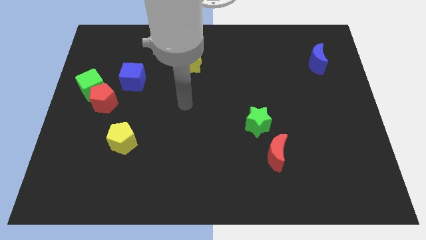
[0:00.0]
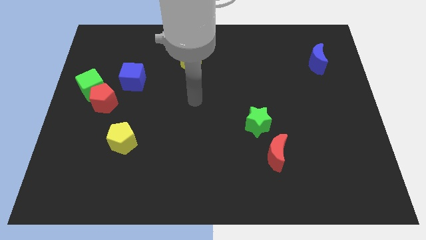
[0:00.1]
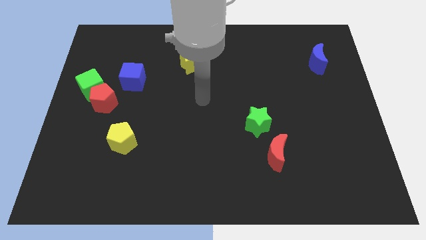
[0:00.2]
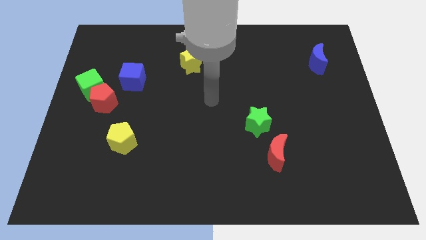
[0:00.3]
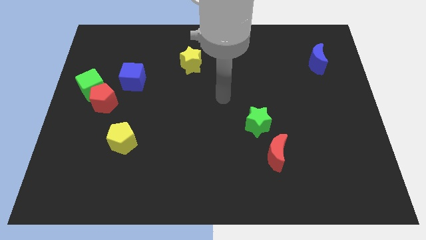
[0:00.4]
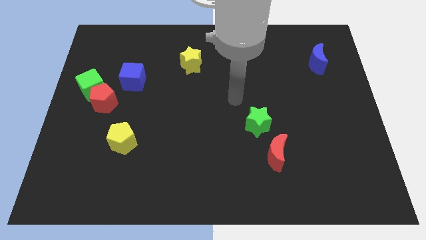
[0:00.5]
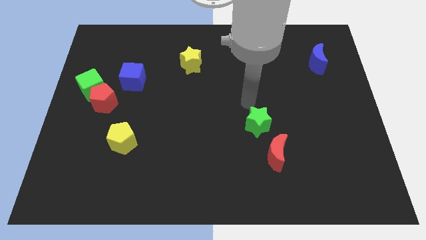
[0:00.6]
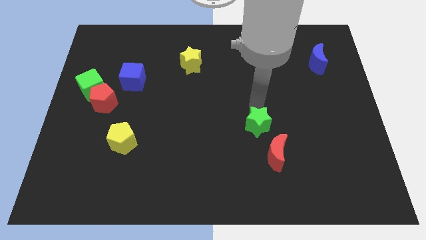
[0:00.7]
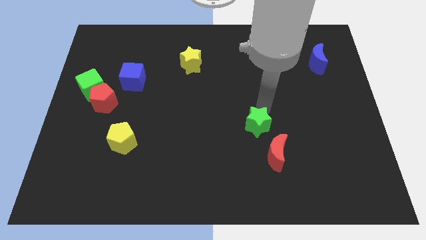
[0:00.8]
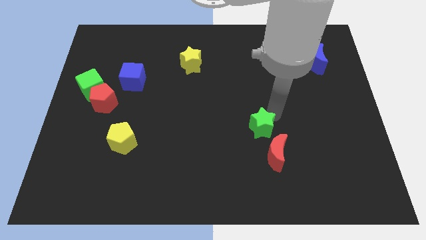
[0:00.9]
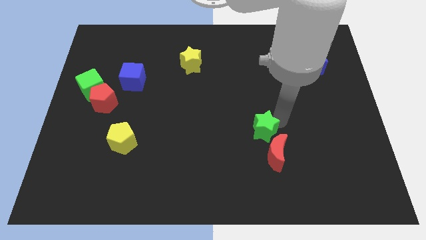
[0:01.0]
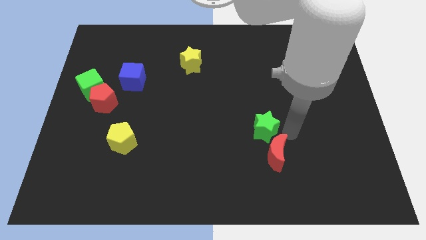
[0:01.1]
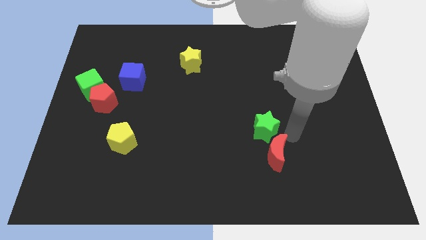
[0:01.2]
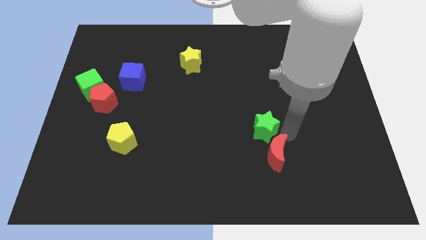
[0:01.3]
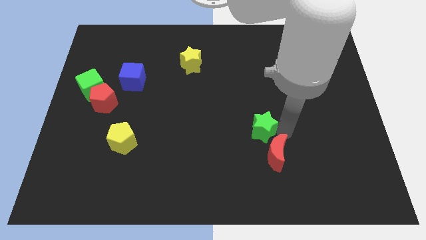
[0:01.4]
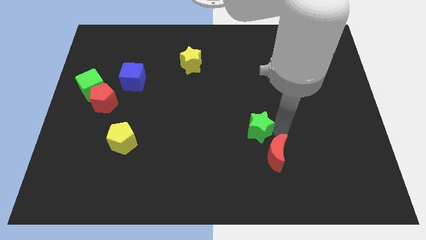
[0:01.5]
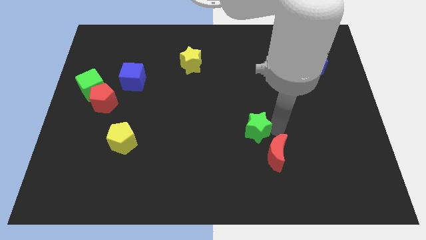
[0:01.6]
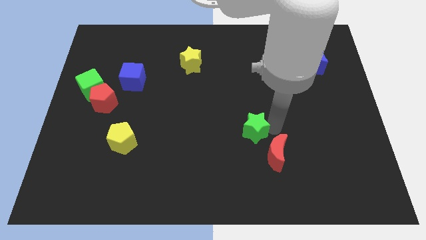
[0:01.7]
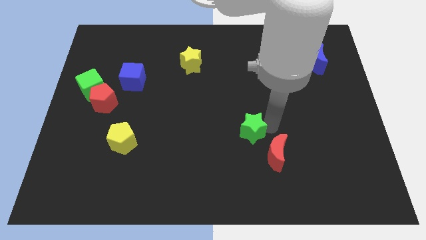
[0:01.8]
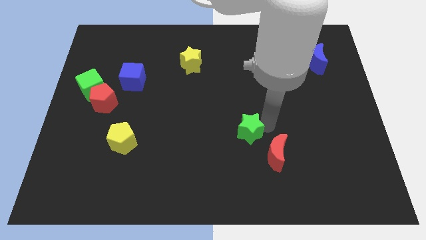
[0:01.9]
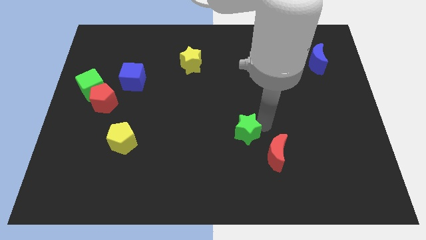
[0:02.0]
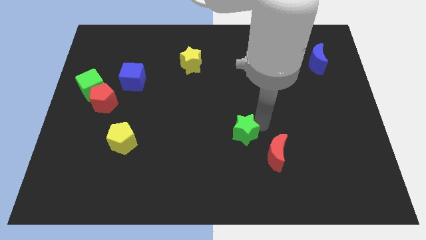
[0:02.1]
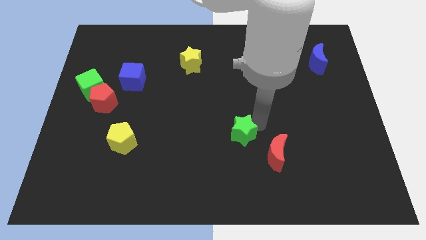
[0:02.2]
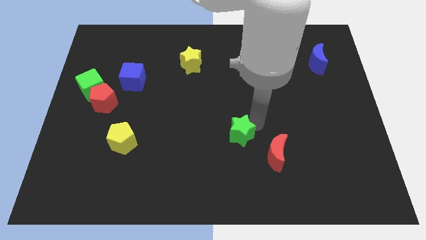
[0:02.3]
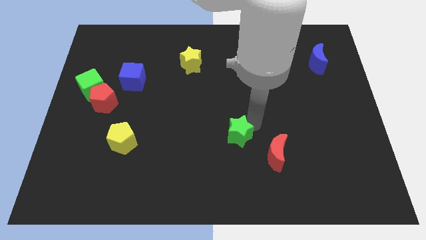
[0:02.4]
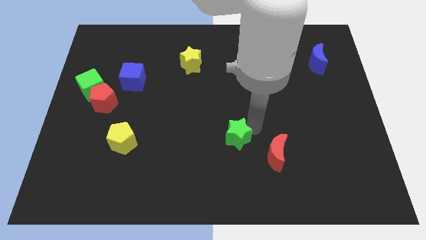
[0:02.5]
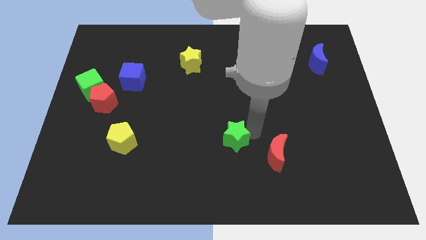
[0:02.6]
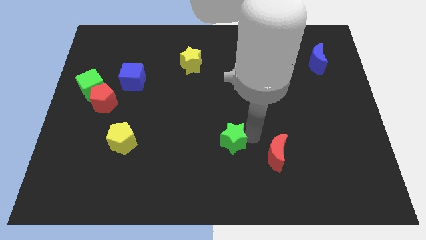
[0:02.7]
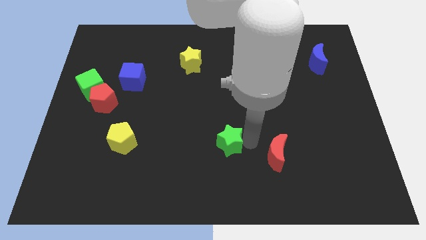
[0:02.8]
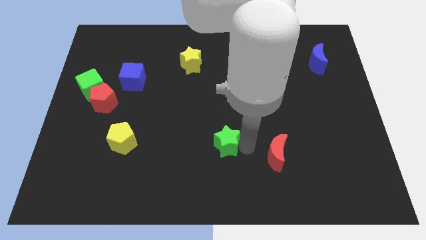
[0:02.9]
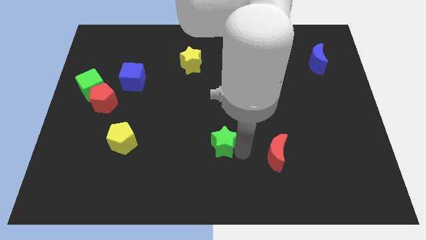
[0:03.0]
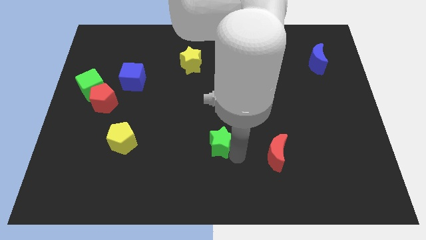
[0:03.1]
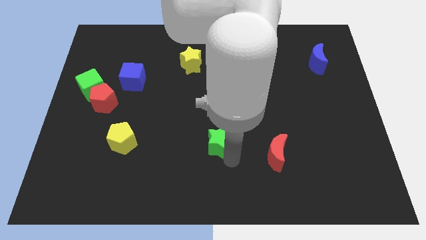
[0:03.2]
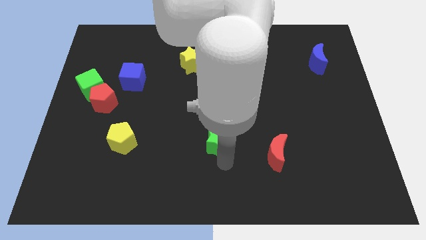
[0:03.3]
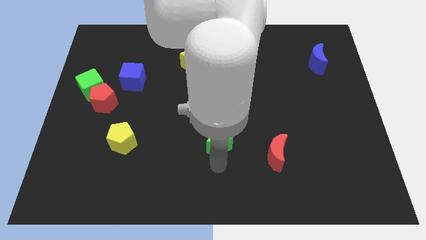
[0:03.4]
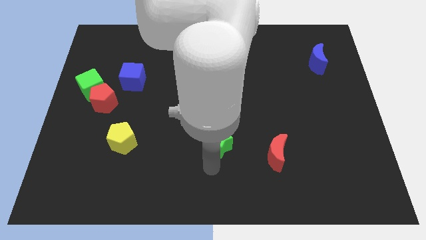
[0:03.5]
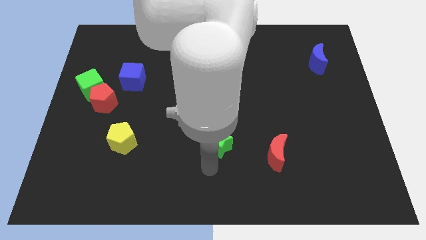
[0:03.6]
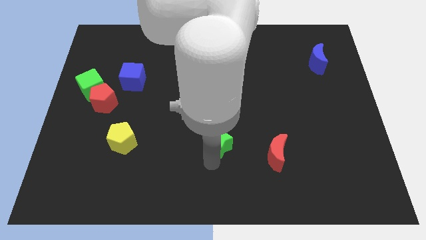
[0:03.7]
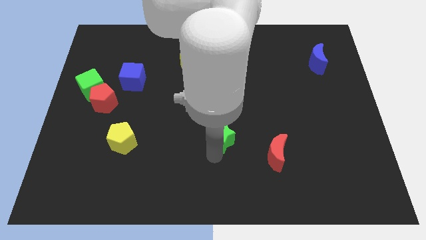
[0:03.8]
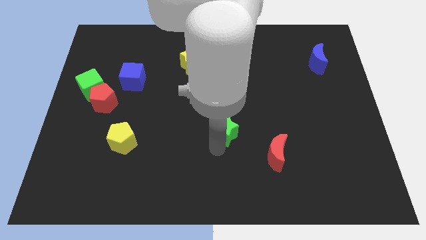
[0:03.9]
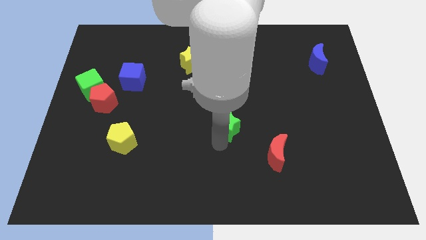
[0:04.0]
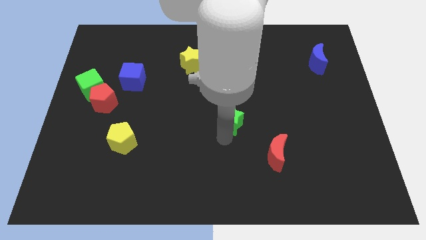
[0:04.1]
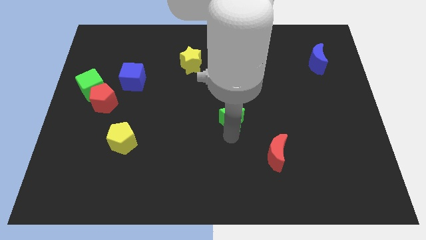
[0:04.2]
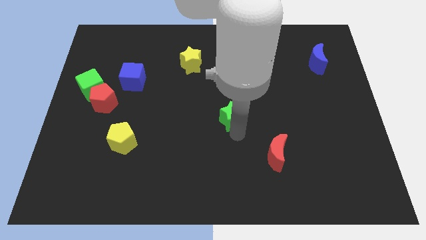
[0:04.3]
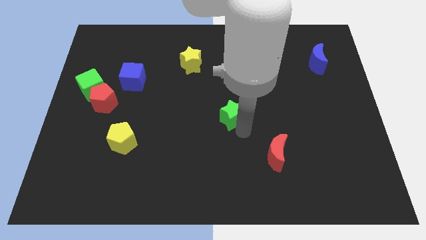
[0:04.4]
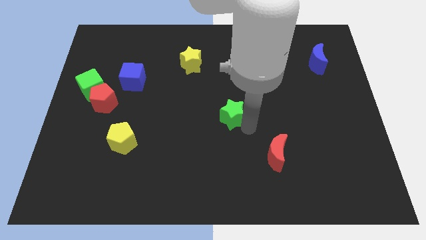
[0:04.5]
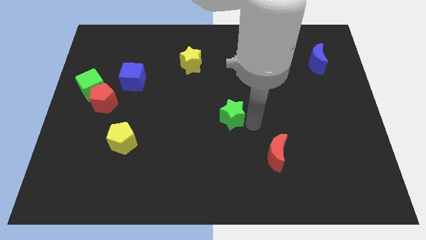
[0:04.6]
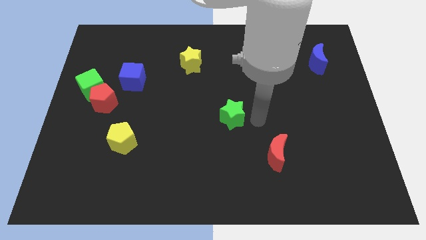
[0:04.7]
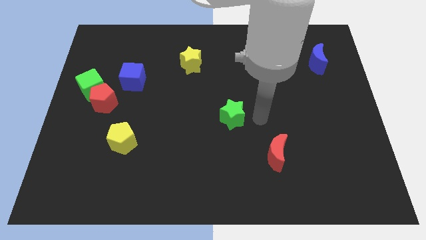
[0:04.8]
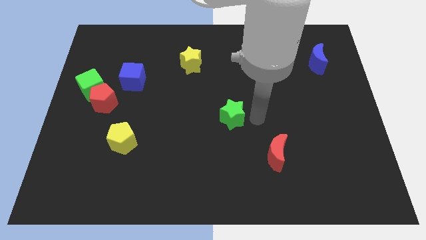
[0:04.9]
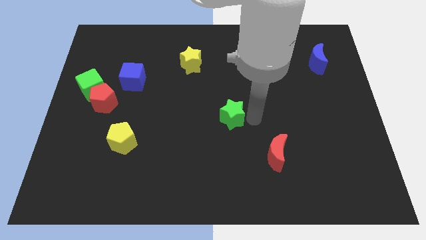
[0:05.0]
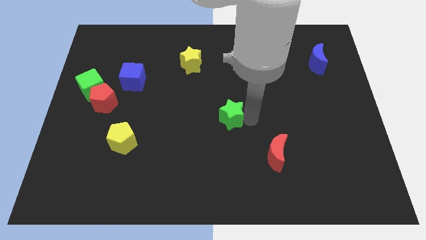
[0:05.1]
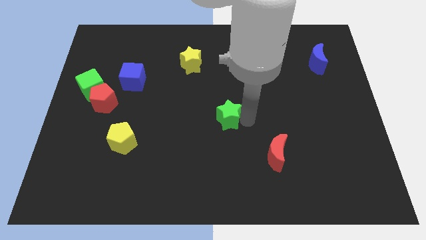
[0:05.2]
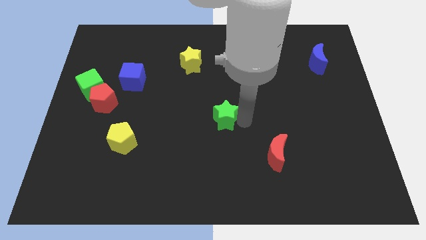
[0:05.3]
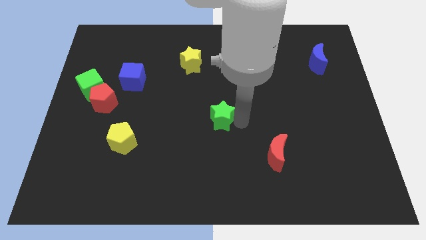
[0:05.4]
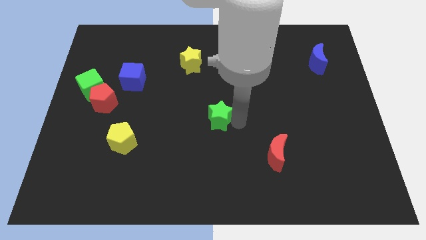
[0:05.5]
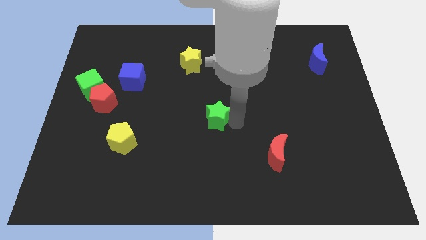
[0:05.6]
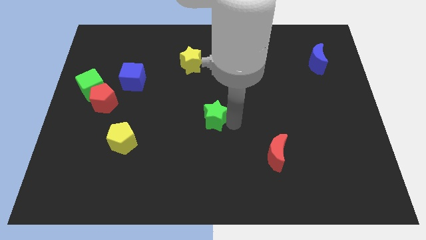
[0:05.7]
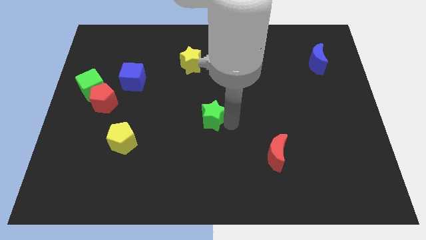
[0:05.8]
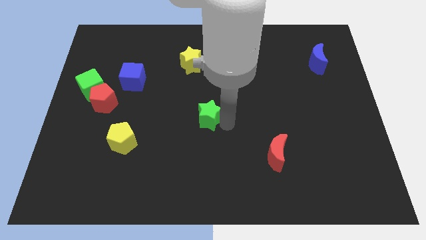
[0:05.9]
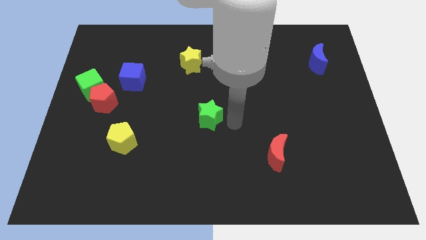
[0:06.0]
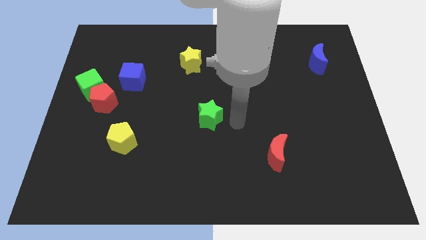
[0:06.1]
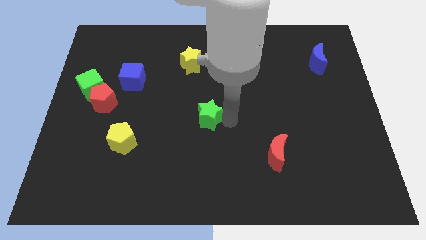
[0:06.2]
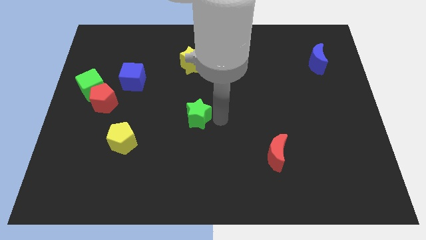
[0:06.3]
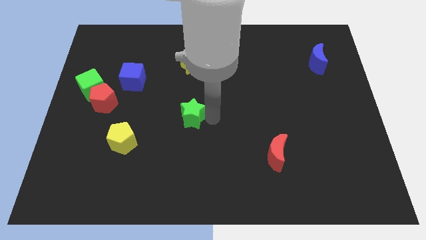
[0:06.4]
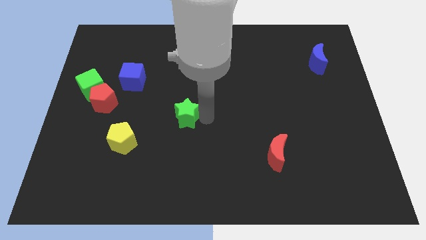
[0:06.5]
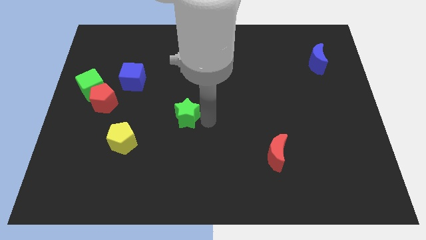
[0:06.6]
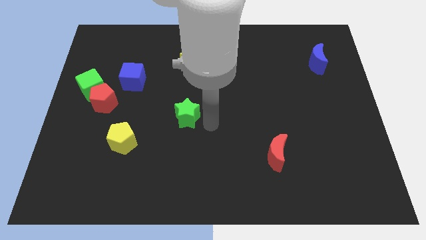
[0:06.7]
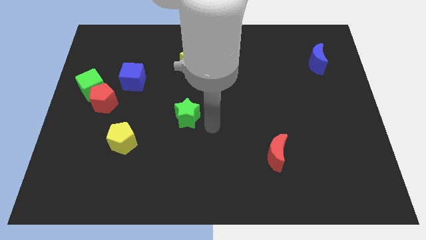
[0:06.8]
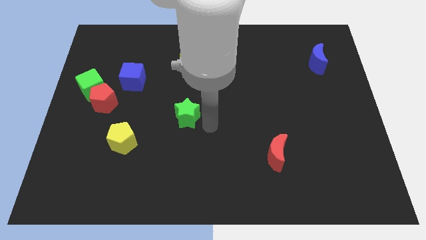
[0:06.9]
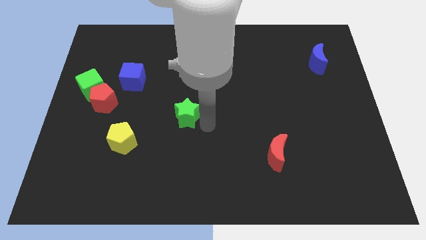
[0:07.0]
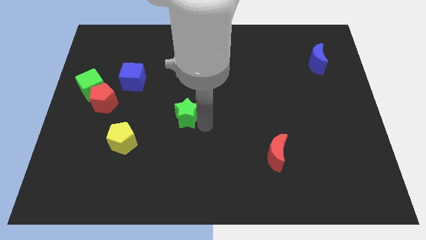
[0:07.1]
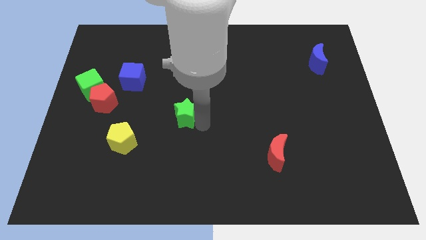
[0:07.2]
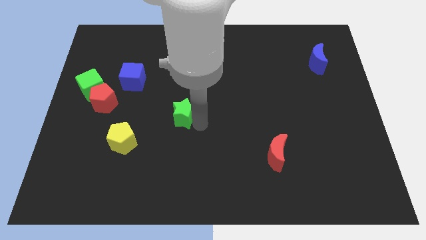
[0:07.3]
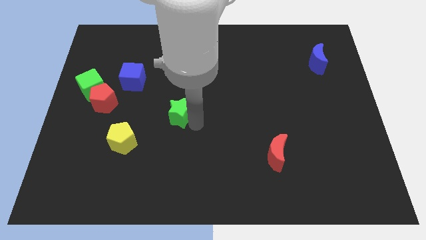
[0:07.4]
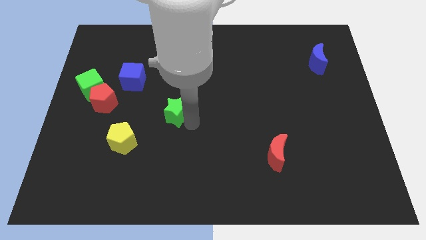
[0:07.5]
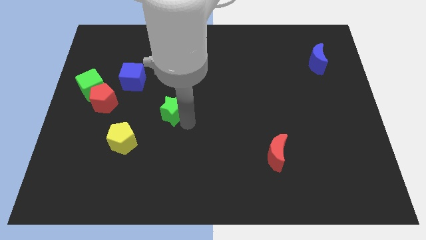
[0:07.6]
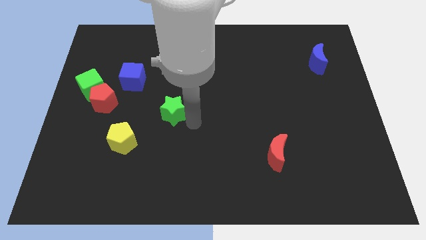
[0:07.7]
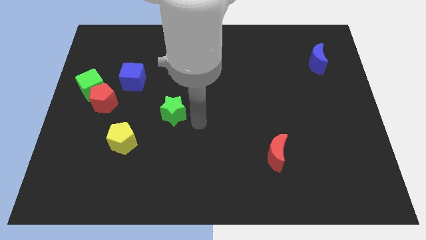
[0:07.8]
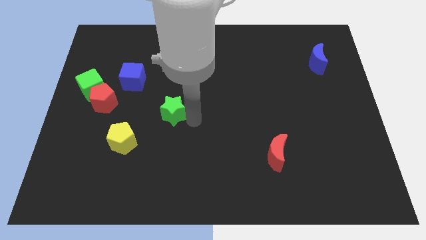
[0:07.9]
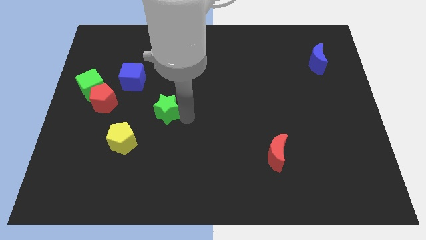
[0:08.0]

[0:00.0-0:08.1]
move the green star to the right of the red pentagon
